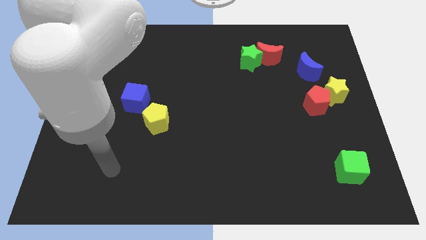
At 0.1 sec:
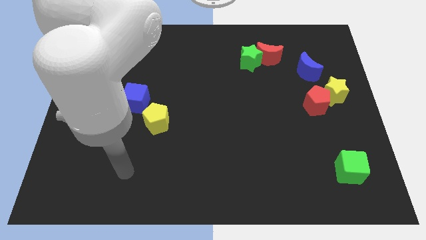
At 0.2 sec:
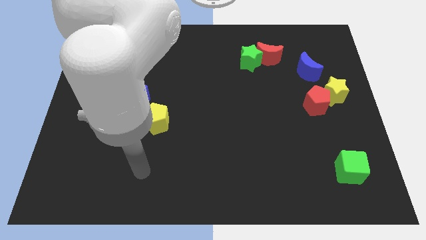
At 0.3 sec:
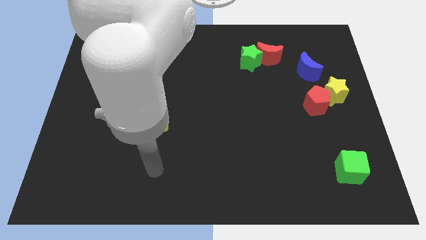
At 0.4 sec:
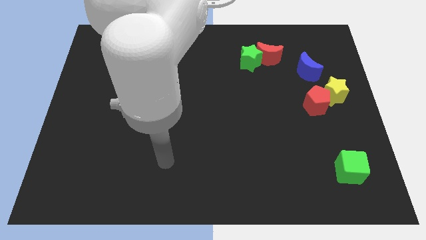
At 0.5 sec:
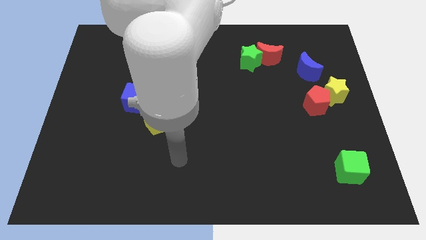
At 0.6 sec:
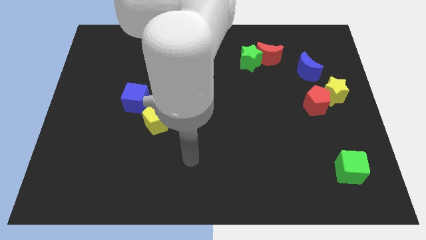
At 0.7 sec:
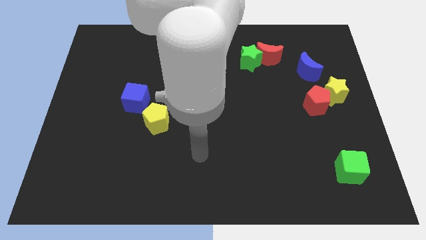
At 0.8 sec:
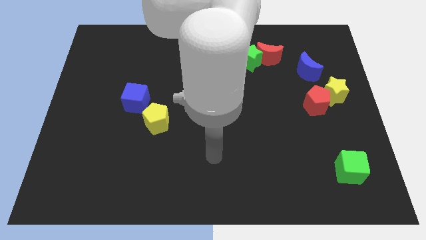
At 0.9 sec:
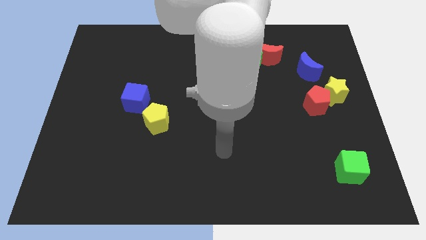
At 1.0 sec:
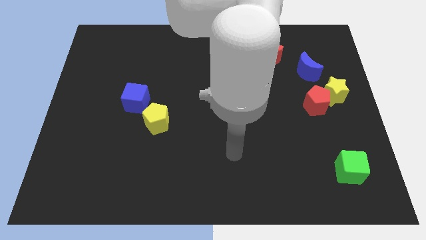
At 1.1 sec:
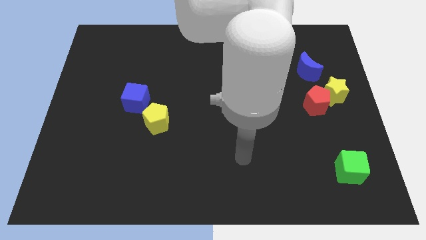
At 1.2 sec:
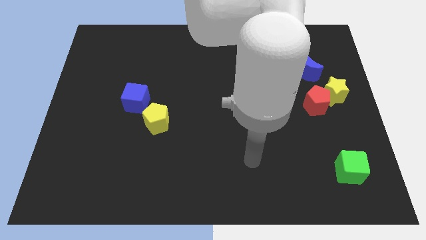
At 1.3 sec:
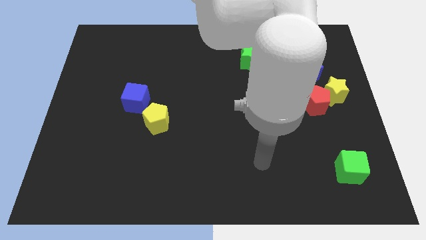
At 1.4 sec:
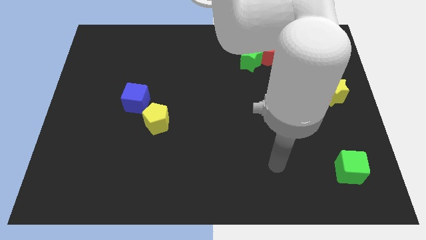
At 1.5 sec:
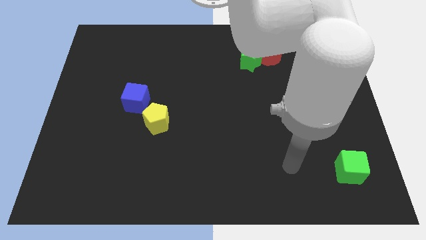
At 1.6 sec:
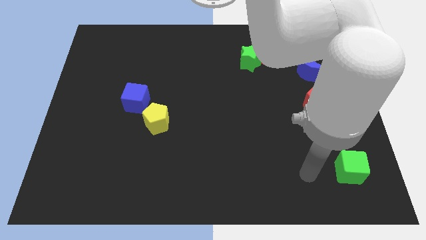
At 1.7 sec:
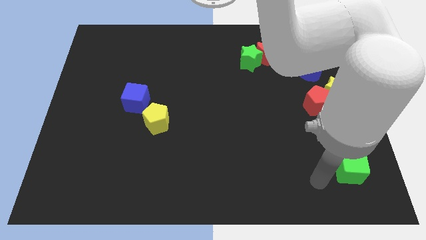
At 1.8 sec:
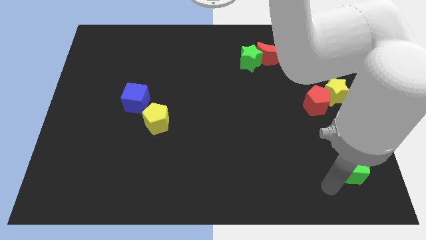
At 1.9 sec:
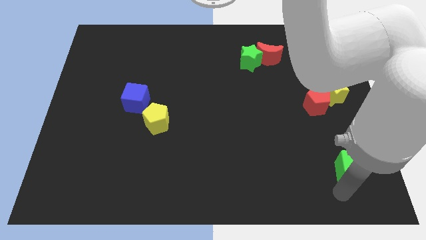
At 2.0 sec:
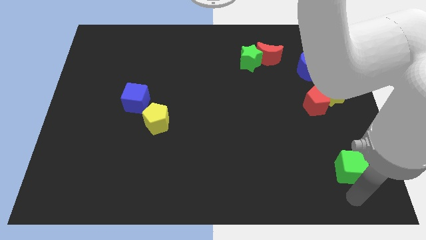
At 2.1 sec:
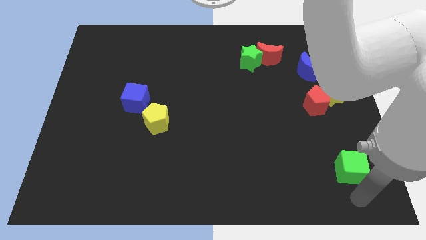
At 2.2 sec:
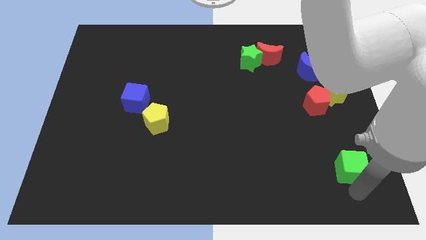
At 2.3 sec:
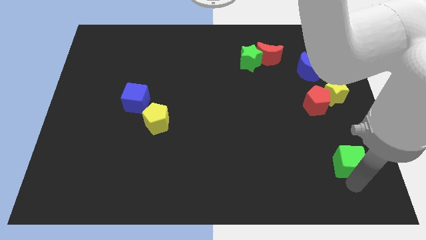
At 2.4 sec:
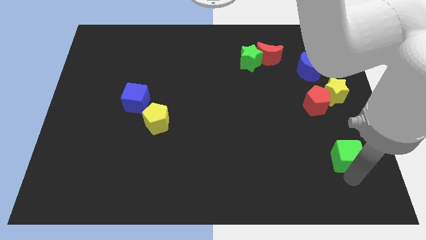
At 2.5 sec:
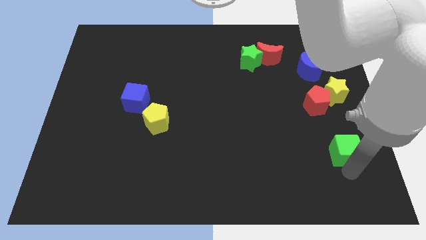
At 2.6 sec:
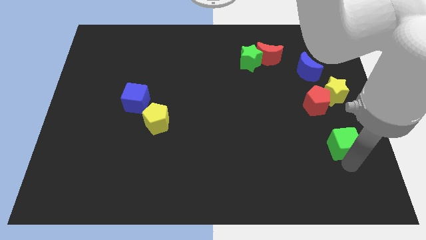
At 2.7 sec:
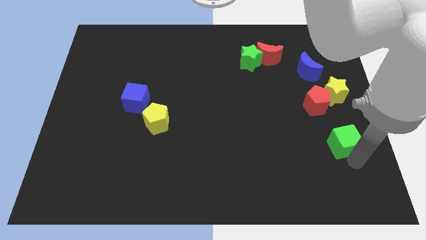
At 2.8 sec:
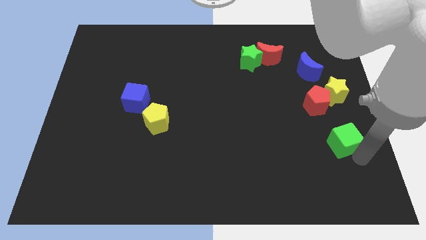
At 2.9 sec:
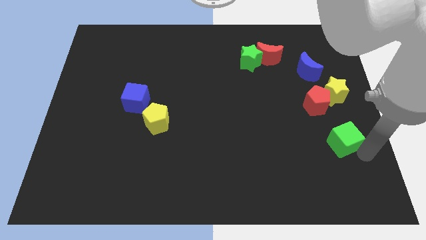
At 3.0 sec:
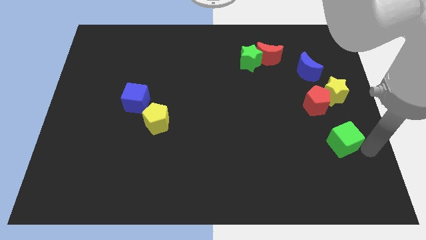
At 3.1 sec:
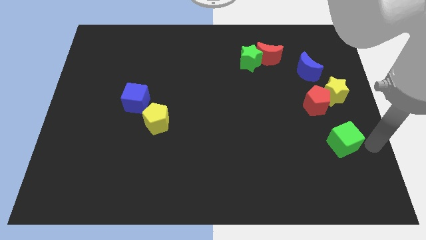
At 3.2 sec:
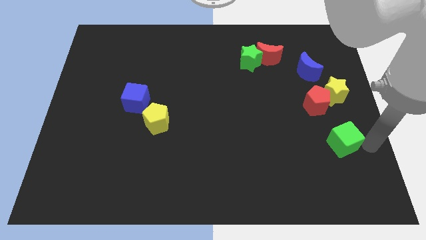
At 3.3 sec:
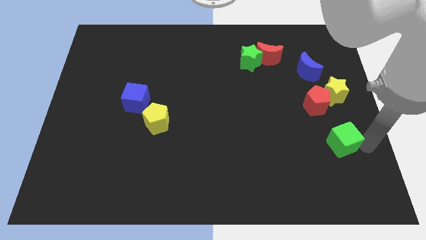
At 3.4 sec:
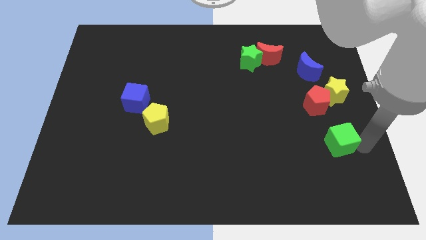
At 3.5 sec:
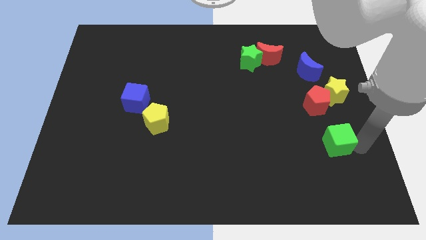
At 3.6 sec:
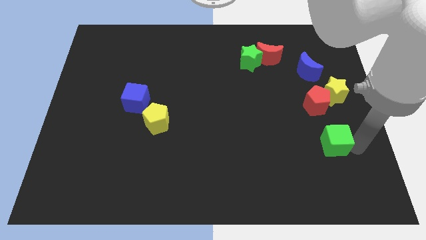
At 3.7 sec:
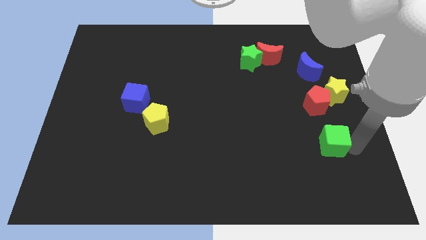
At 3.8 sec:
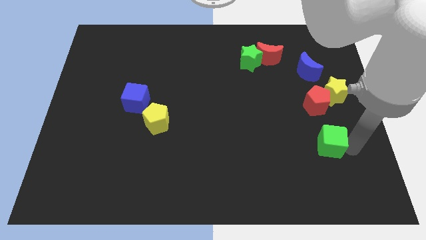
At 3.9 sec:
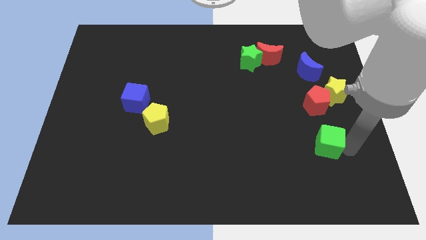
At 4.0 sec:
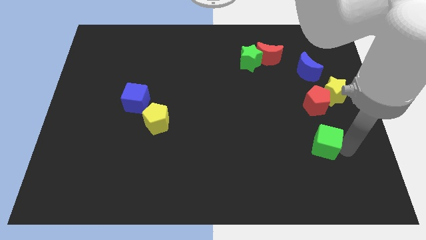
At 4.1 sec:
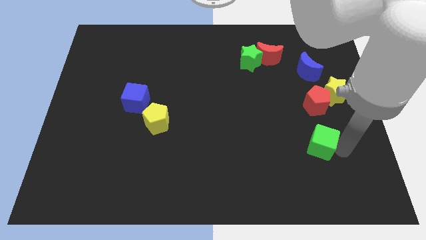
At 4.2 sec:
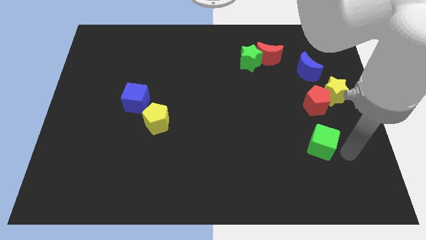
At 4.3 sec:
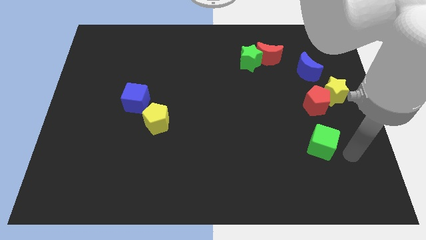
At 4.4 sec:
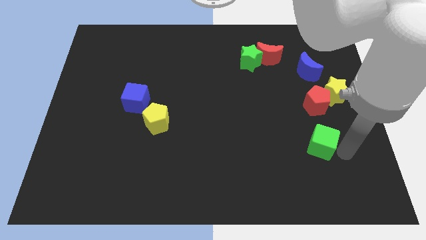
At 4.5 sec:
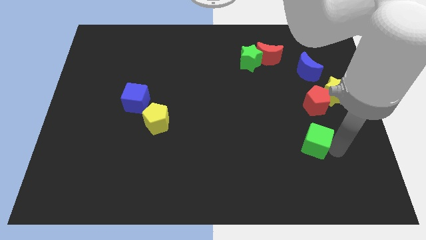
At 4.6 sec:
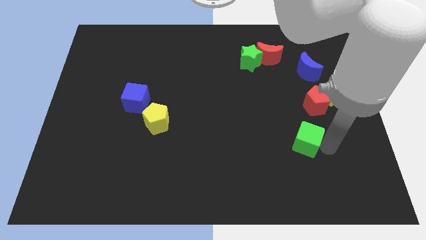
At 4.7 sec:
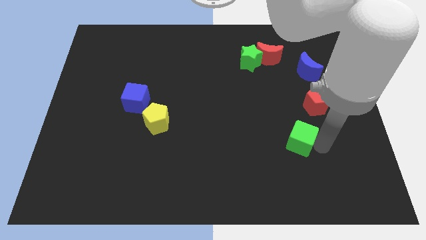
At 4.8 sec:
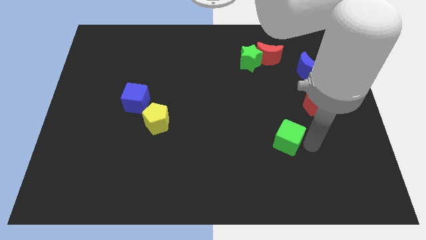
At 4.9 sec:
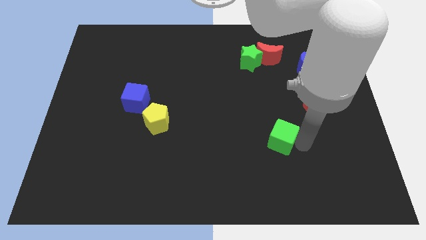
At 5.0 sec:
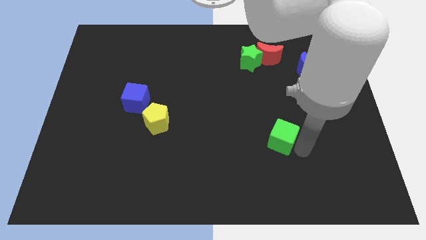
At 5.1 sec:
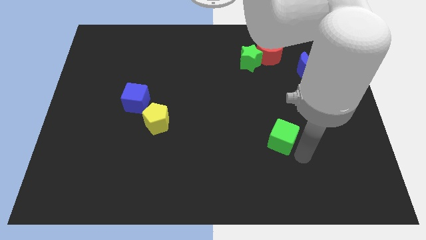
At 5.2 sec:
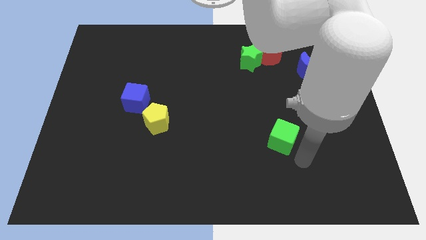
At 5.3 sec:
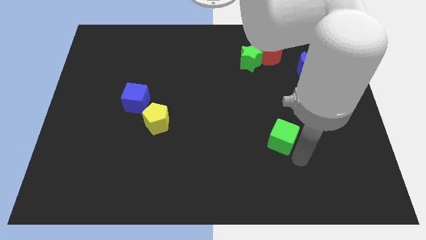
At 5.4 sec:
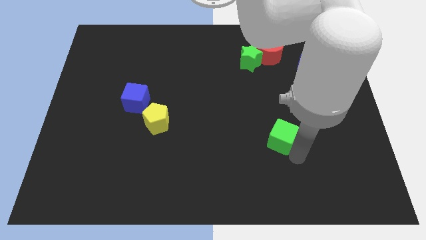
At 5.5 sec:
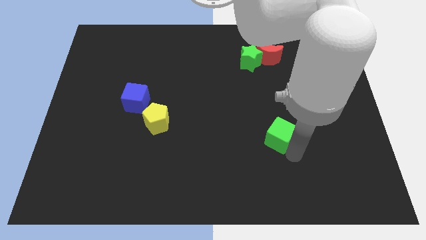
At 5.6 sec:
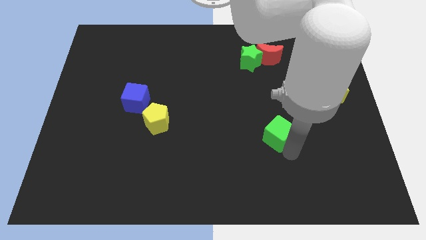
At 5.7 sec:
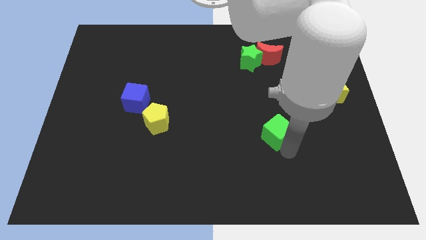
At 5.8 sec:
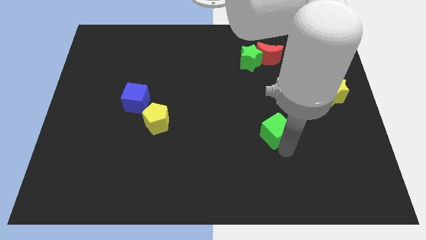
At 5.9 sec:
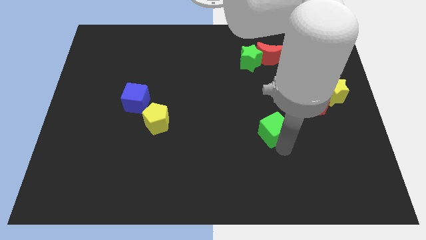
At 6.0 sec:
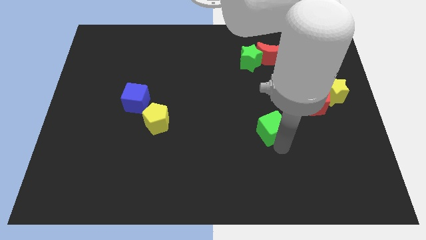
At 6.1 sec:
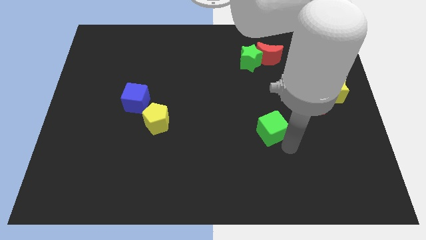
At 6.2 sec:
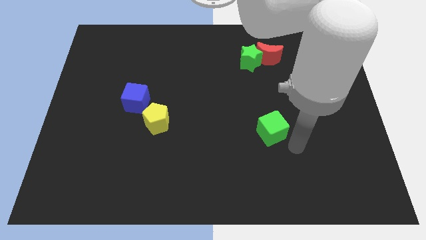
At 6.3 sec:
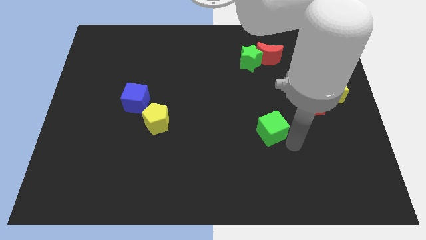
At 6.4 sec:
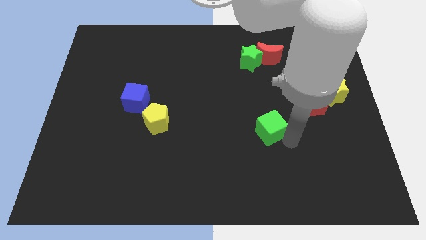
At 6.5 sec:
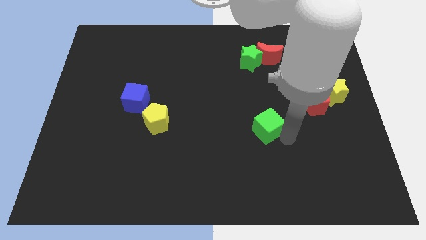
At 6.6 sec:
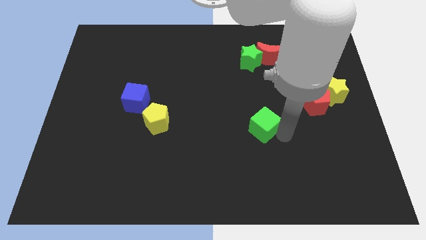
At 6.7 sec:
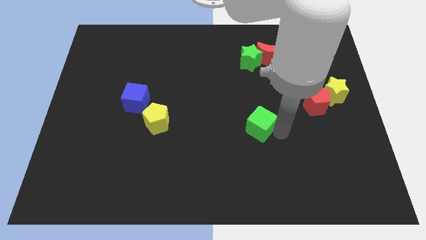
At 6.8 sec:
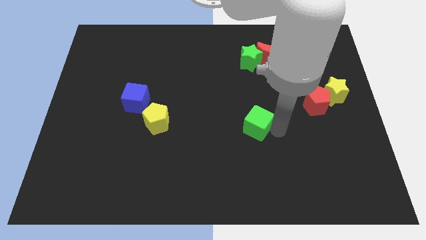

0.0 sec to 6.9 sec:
push the green cube to the center of the board
